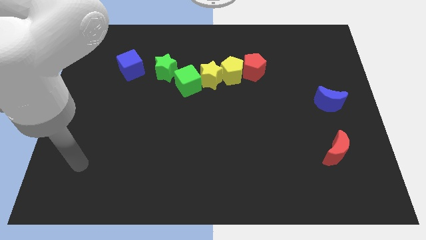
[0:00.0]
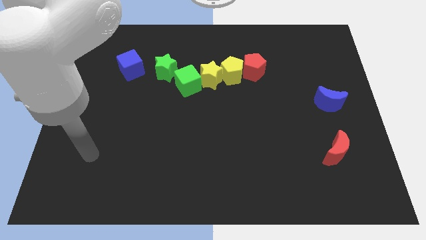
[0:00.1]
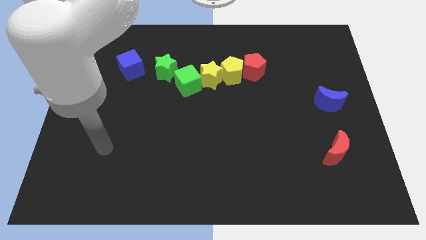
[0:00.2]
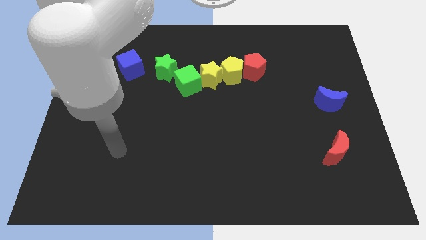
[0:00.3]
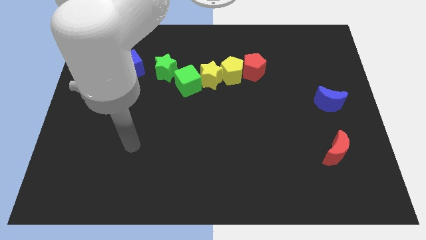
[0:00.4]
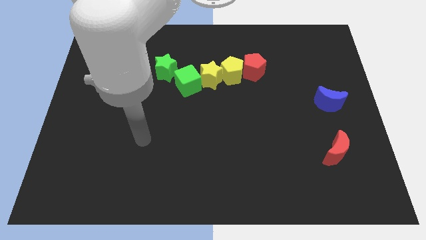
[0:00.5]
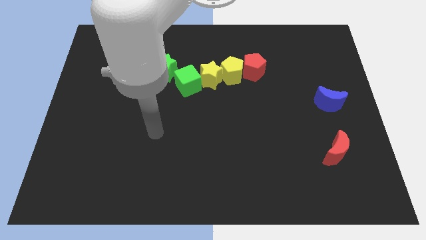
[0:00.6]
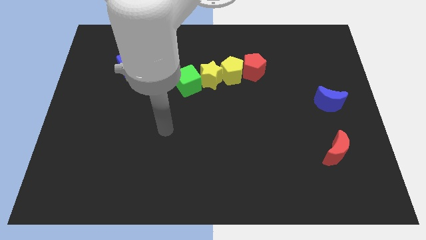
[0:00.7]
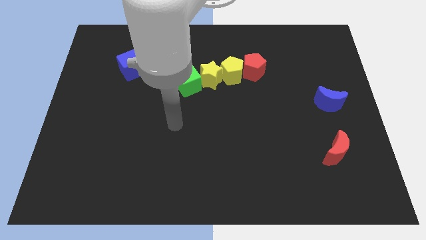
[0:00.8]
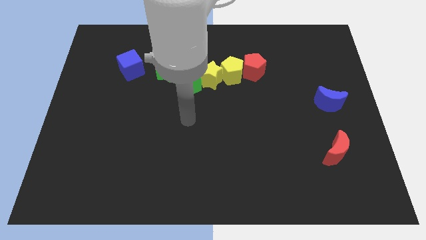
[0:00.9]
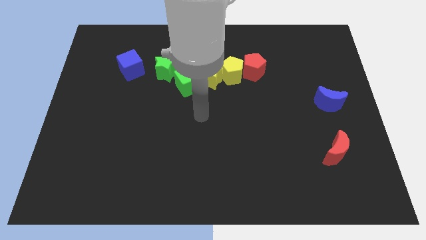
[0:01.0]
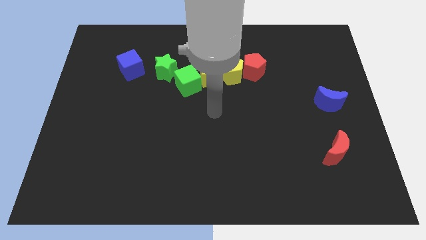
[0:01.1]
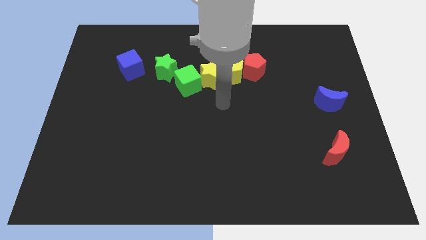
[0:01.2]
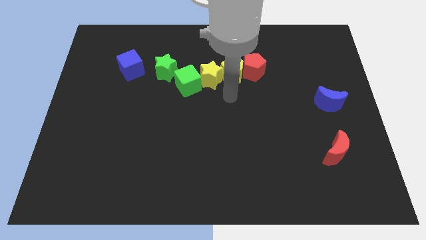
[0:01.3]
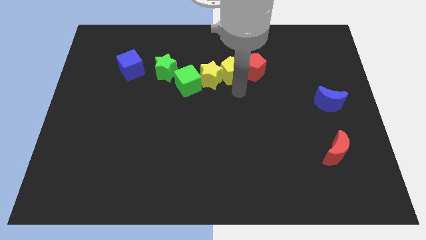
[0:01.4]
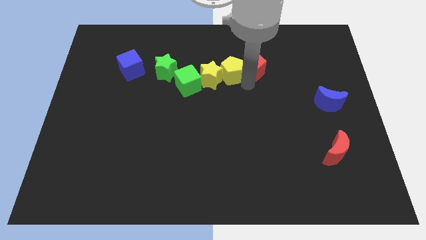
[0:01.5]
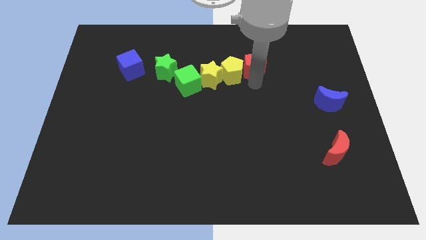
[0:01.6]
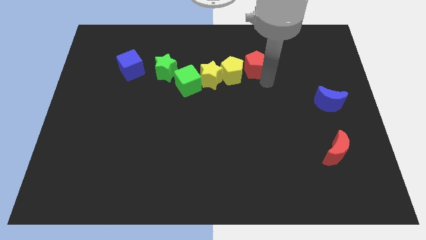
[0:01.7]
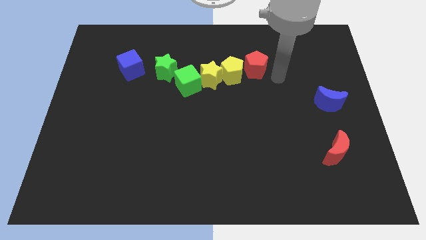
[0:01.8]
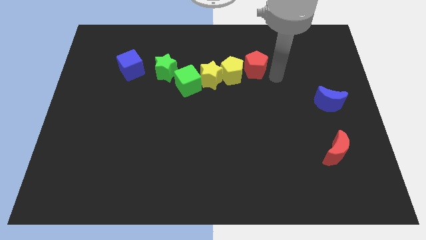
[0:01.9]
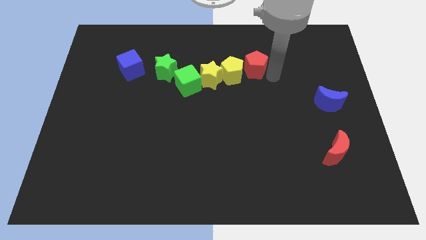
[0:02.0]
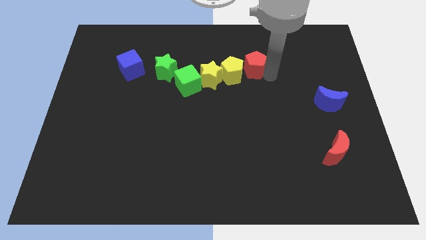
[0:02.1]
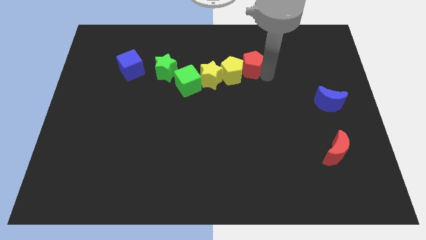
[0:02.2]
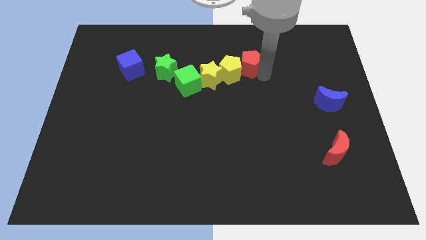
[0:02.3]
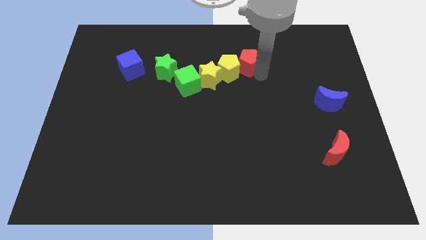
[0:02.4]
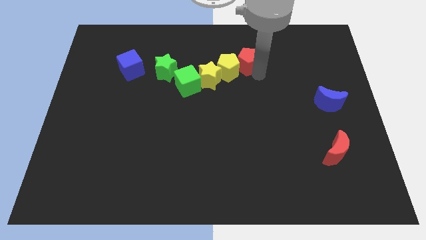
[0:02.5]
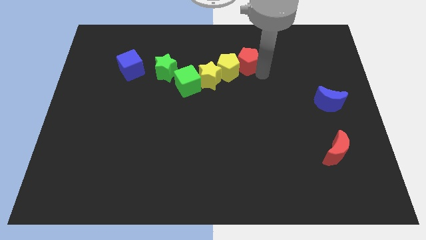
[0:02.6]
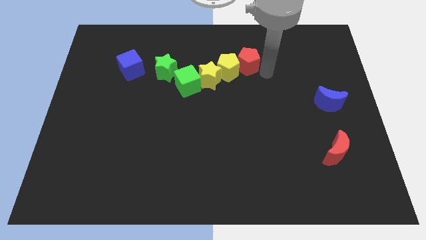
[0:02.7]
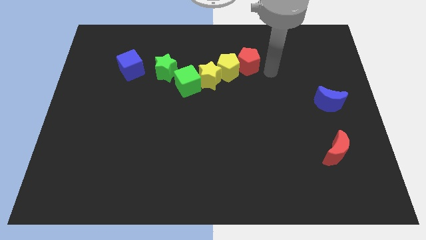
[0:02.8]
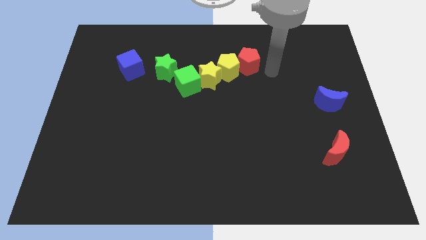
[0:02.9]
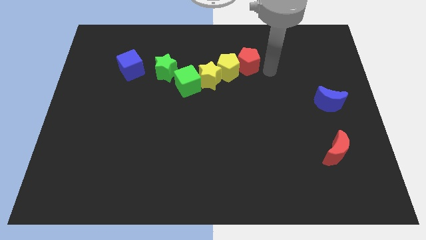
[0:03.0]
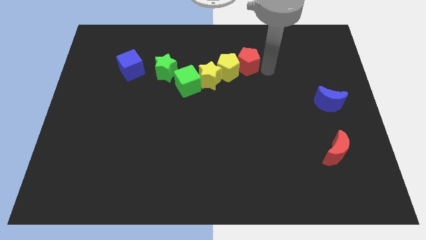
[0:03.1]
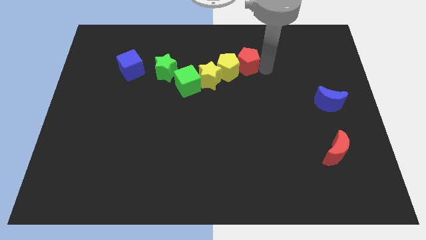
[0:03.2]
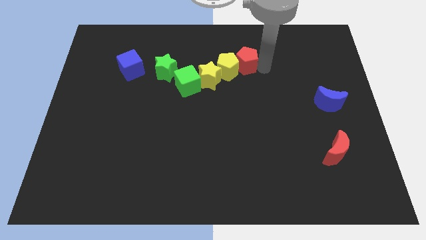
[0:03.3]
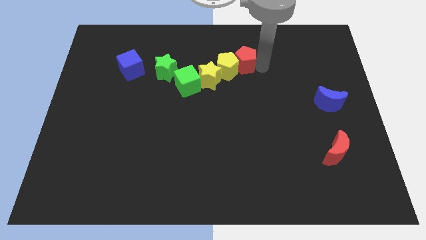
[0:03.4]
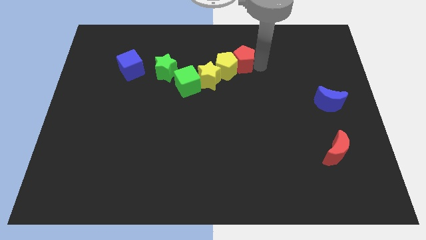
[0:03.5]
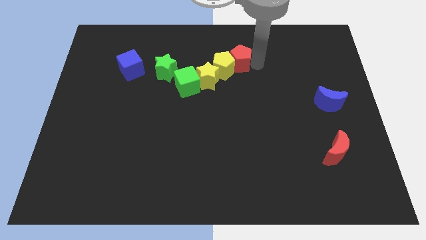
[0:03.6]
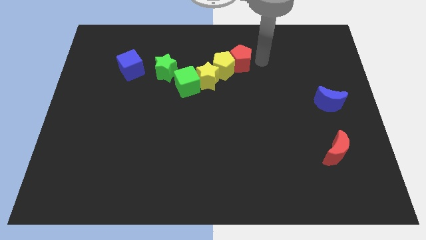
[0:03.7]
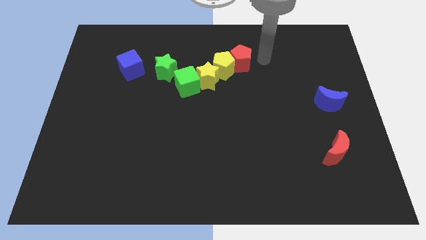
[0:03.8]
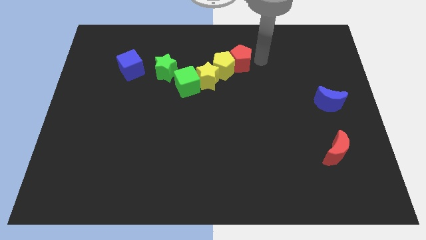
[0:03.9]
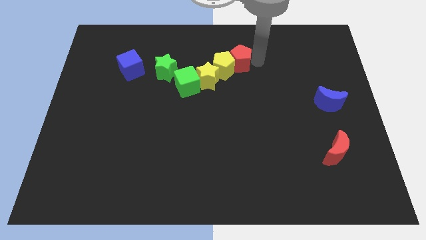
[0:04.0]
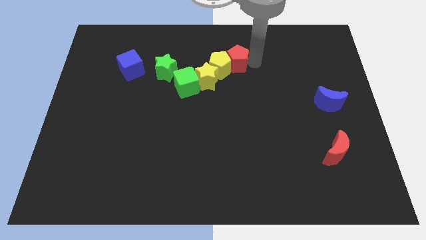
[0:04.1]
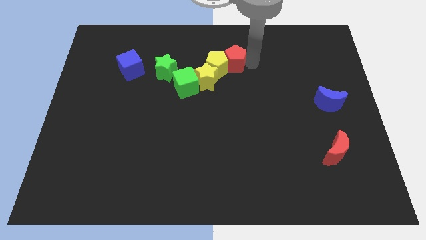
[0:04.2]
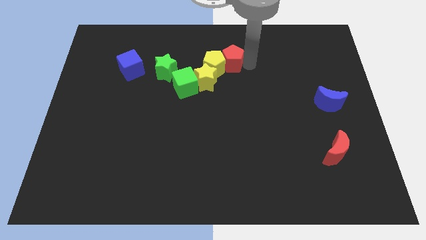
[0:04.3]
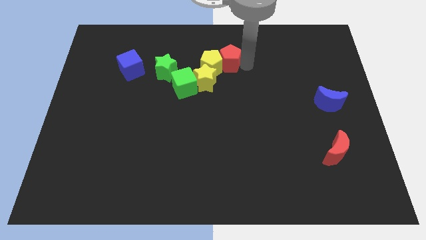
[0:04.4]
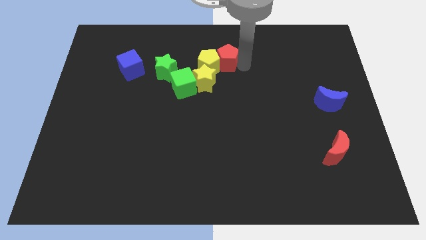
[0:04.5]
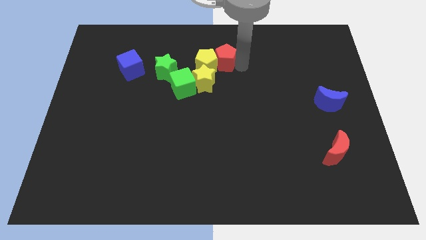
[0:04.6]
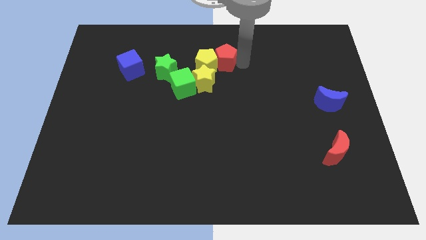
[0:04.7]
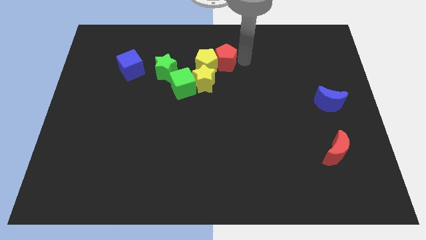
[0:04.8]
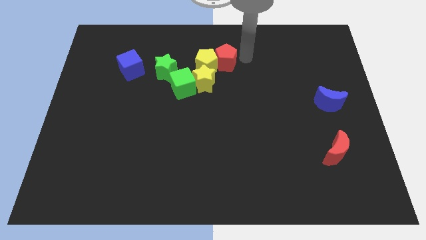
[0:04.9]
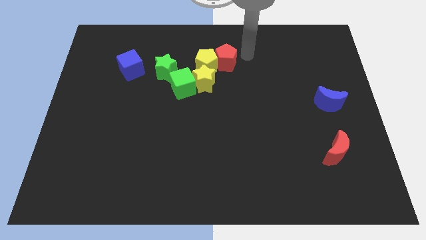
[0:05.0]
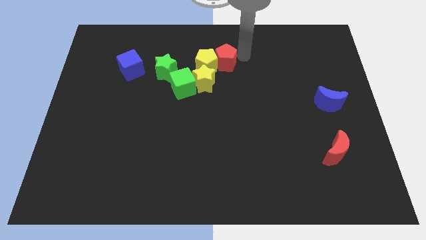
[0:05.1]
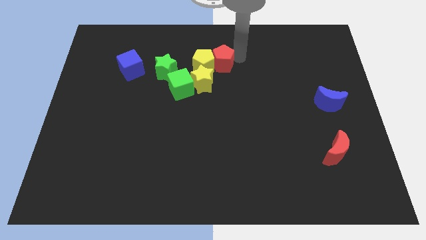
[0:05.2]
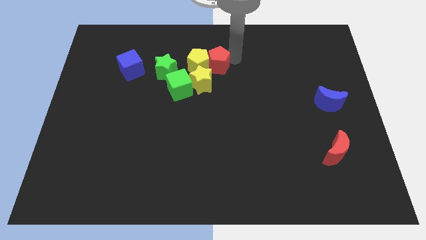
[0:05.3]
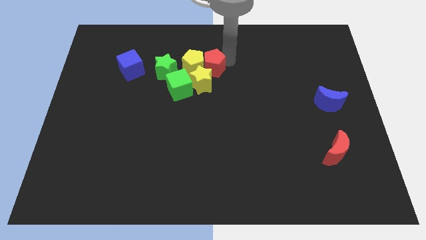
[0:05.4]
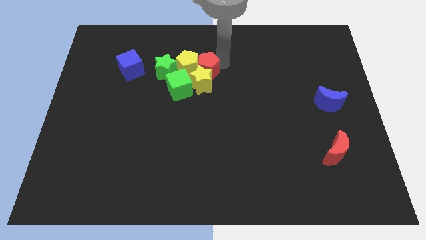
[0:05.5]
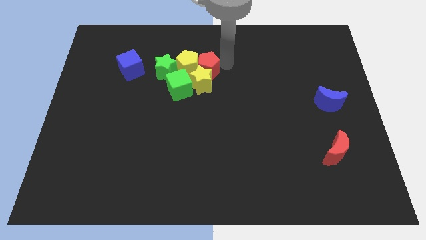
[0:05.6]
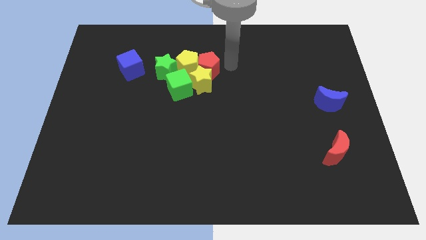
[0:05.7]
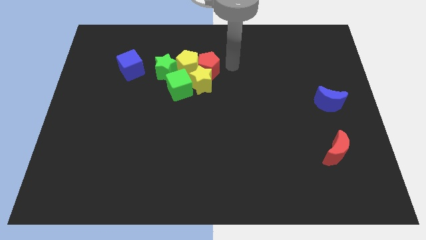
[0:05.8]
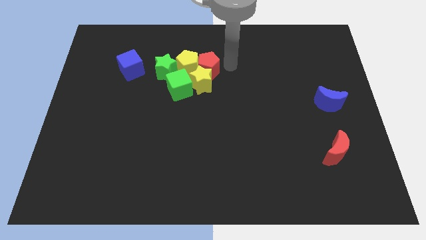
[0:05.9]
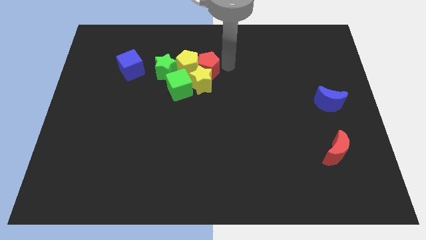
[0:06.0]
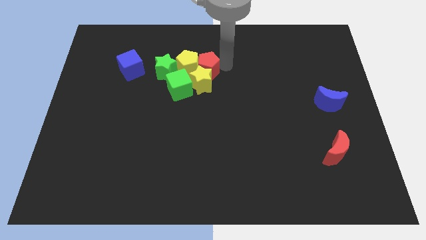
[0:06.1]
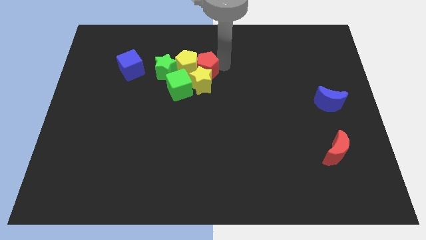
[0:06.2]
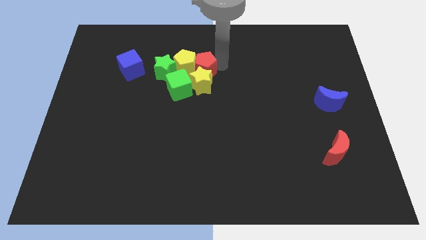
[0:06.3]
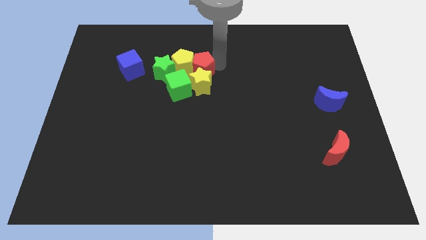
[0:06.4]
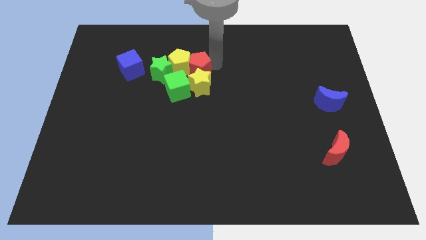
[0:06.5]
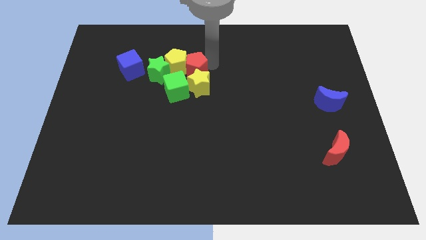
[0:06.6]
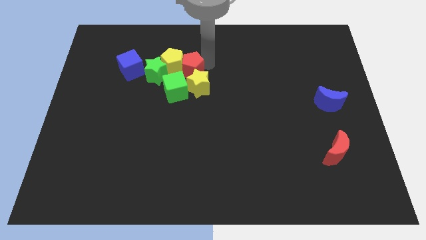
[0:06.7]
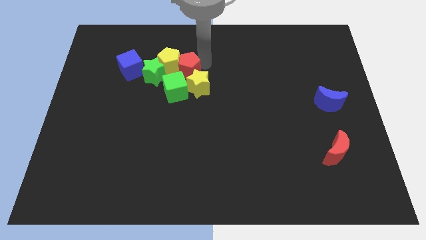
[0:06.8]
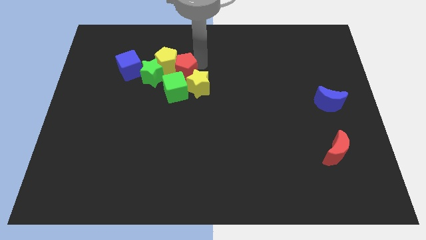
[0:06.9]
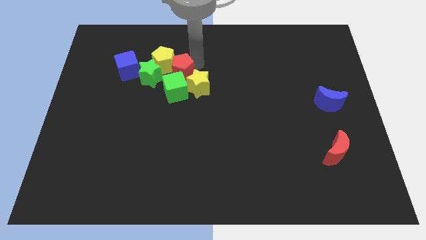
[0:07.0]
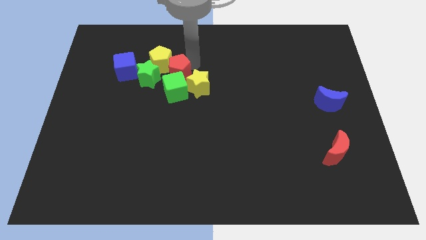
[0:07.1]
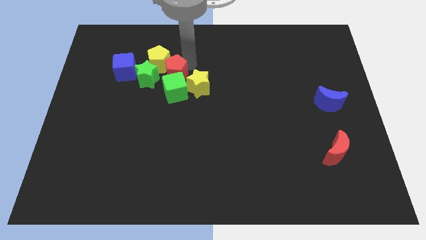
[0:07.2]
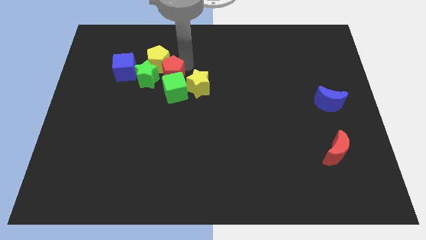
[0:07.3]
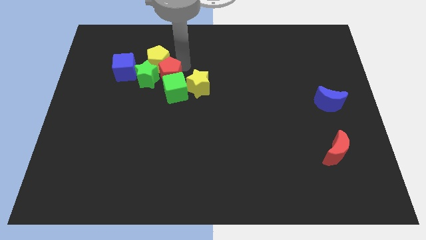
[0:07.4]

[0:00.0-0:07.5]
slide the red pentagon close to the green star
